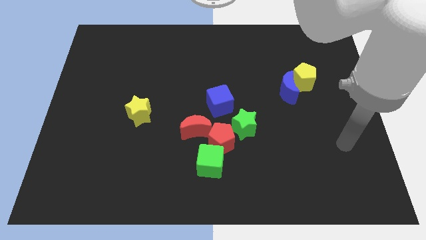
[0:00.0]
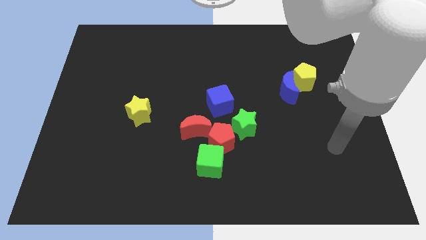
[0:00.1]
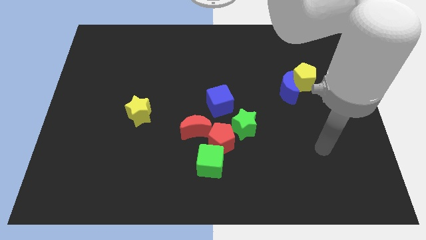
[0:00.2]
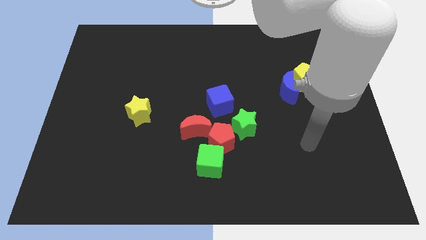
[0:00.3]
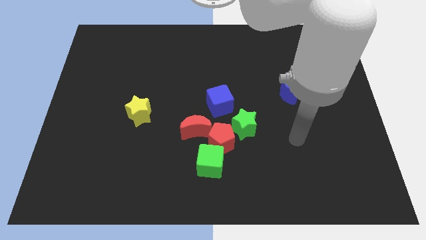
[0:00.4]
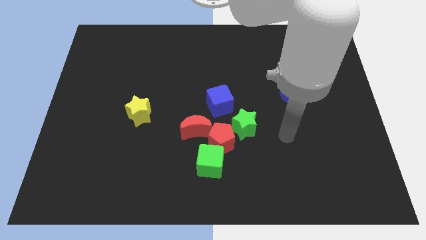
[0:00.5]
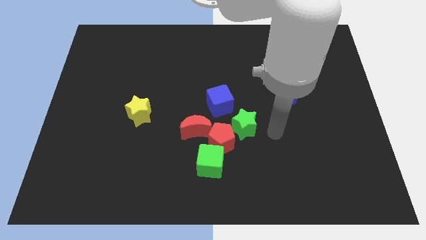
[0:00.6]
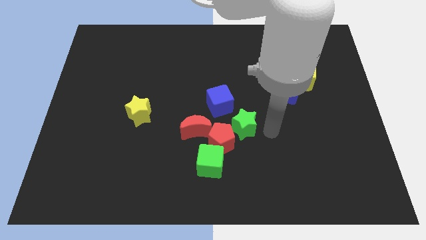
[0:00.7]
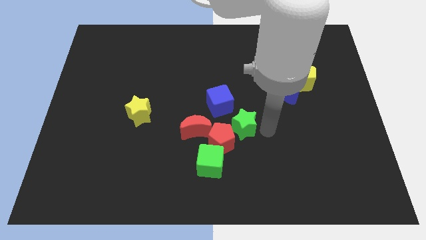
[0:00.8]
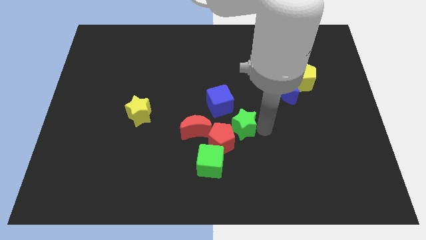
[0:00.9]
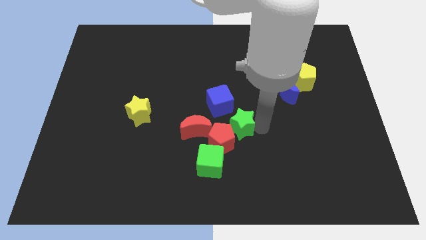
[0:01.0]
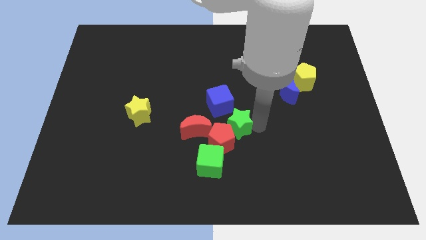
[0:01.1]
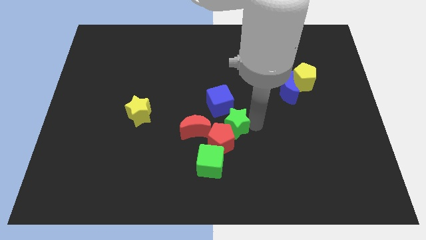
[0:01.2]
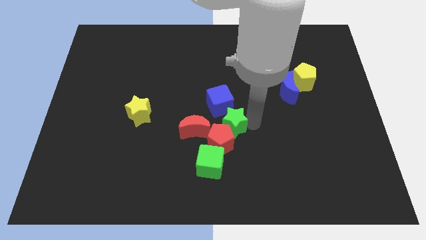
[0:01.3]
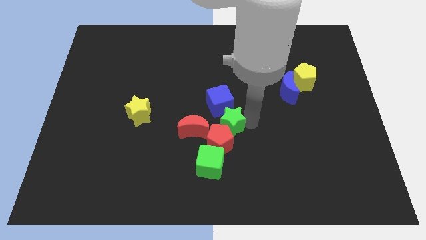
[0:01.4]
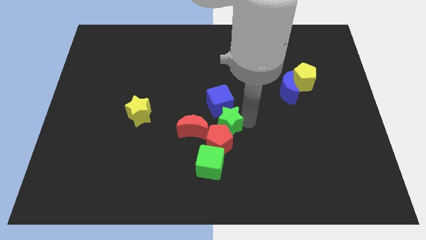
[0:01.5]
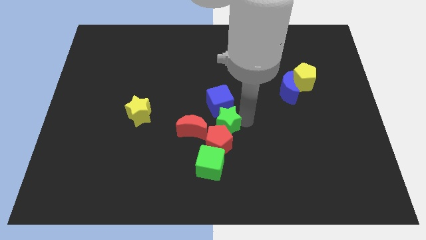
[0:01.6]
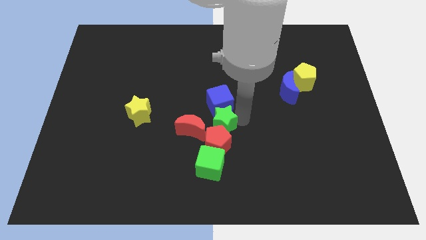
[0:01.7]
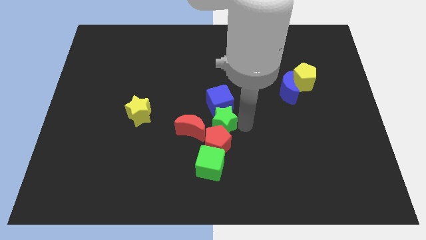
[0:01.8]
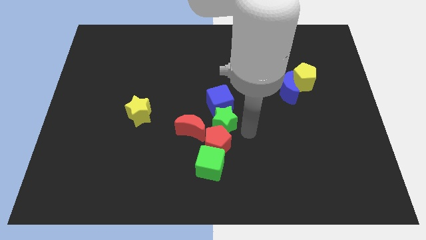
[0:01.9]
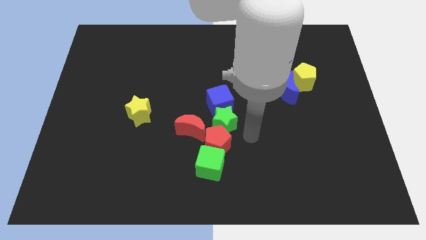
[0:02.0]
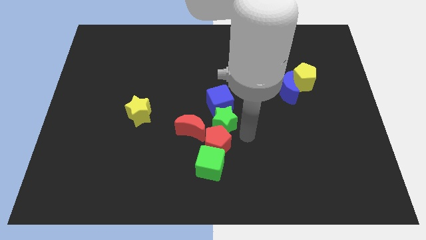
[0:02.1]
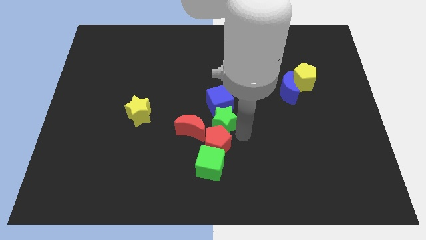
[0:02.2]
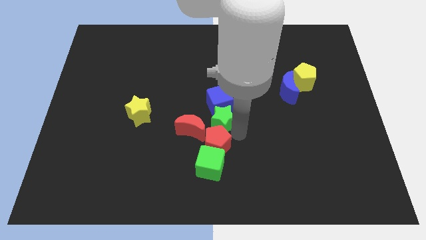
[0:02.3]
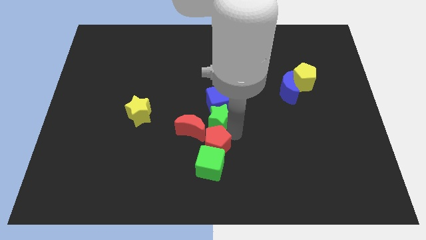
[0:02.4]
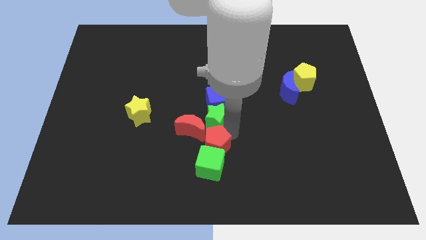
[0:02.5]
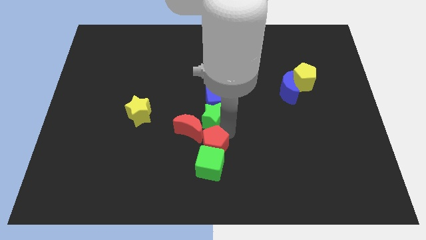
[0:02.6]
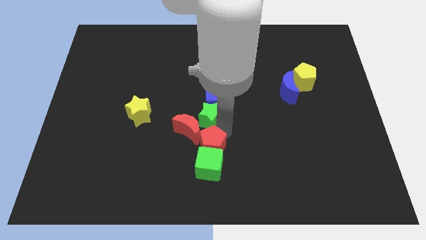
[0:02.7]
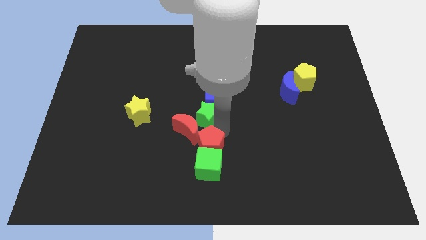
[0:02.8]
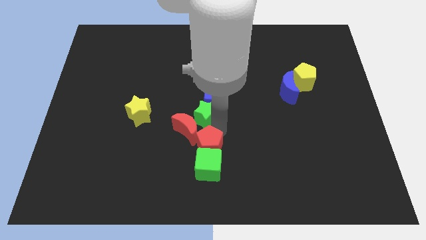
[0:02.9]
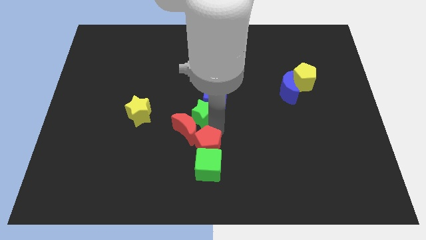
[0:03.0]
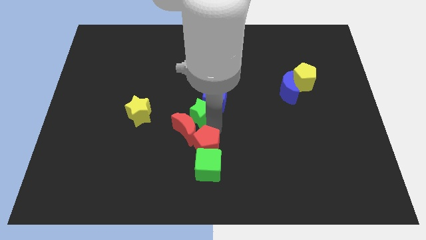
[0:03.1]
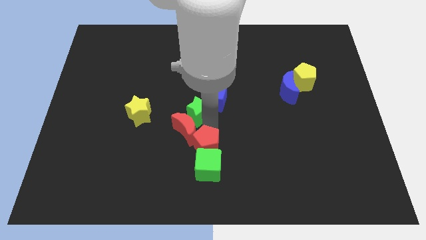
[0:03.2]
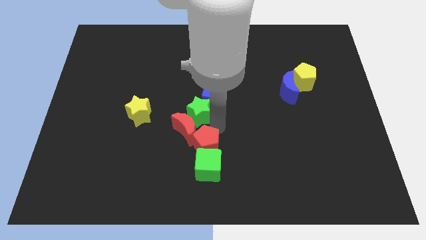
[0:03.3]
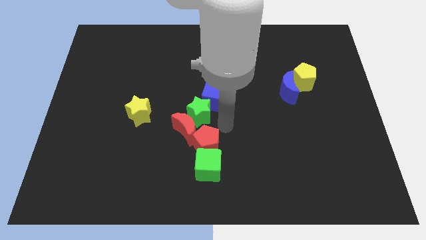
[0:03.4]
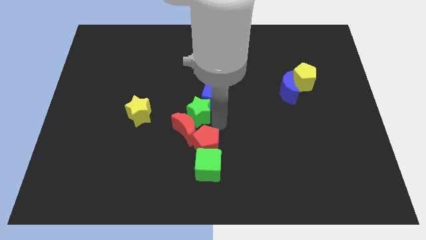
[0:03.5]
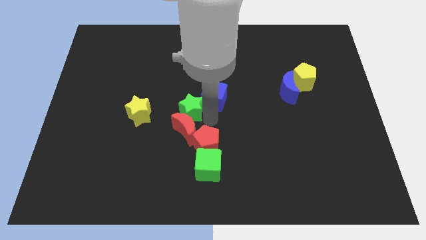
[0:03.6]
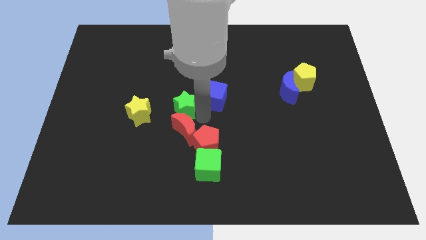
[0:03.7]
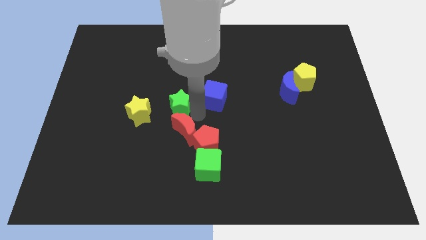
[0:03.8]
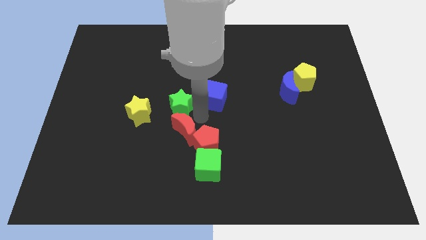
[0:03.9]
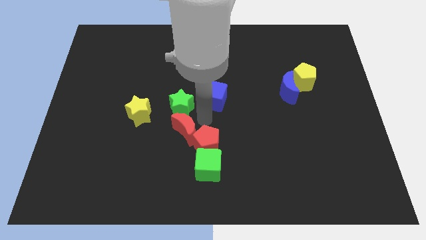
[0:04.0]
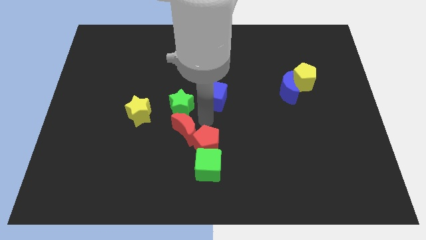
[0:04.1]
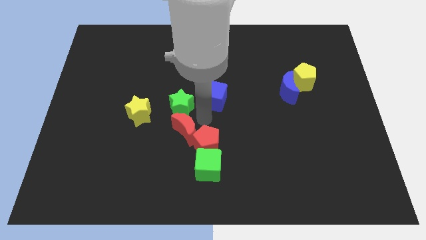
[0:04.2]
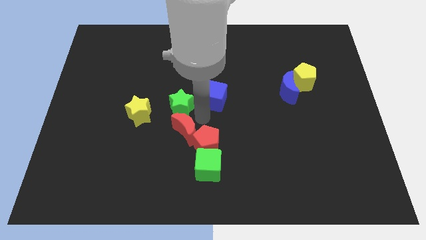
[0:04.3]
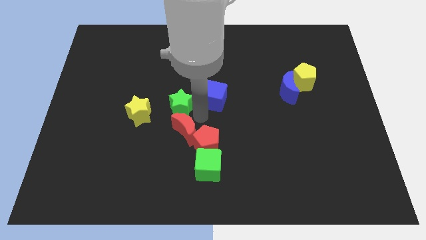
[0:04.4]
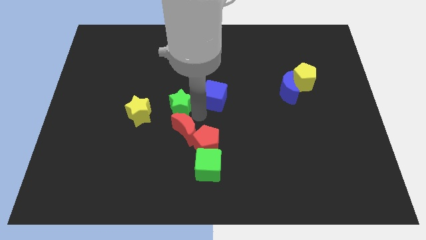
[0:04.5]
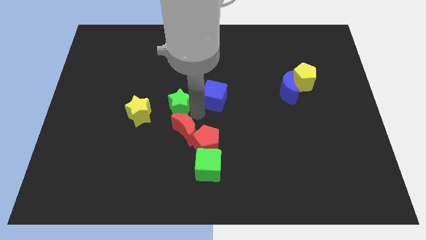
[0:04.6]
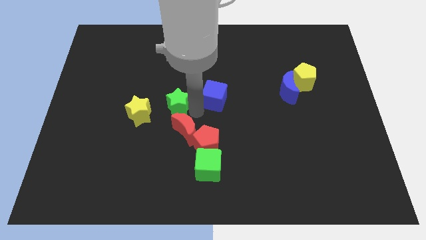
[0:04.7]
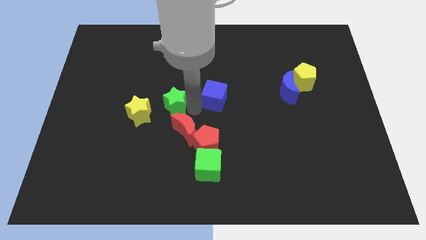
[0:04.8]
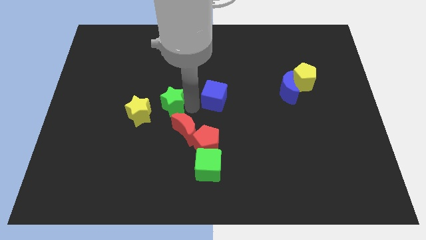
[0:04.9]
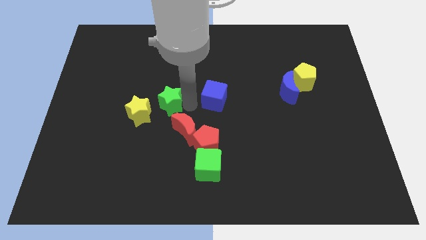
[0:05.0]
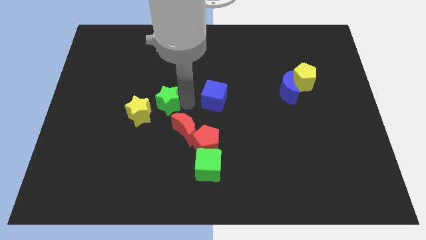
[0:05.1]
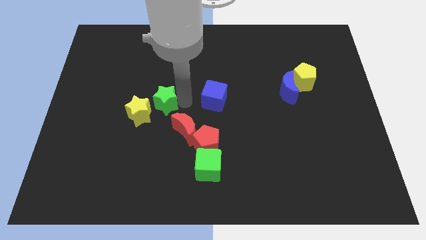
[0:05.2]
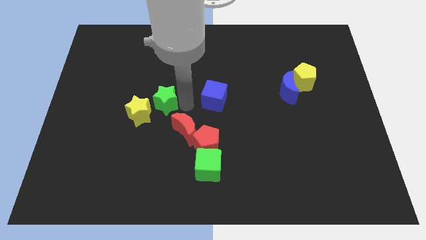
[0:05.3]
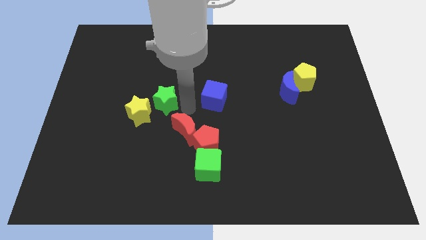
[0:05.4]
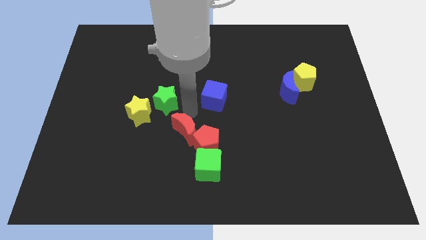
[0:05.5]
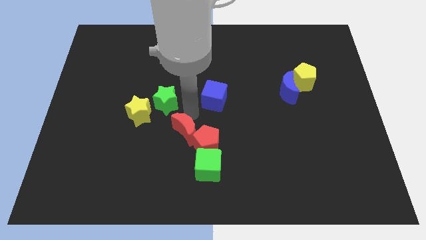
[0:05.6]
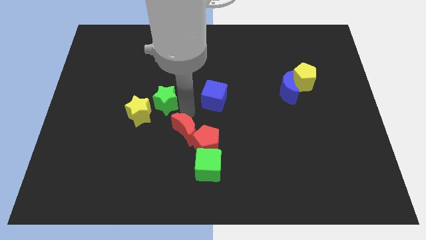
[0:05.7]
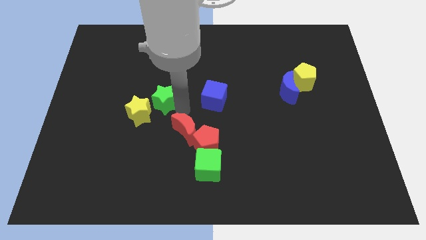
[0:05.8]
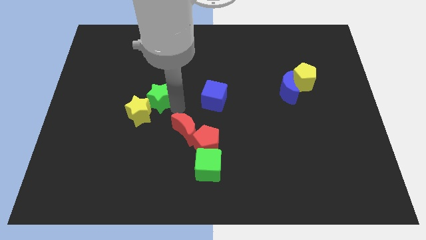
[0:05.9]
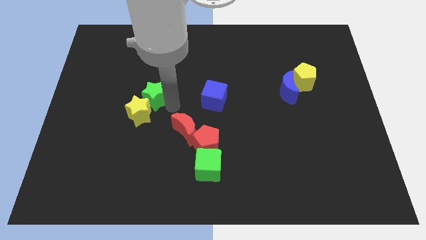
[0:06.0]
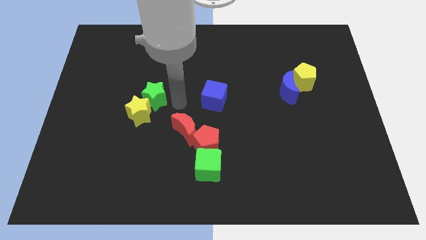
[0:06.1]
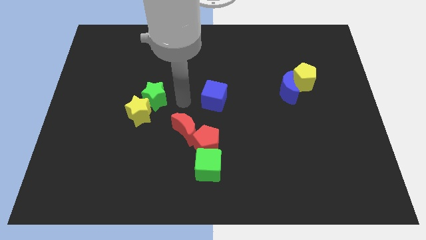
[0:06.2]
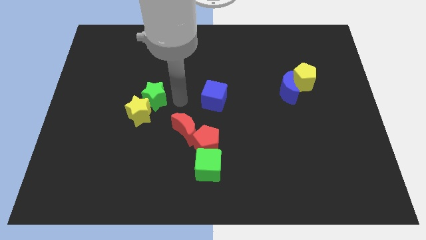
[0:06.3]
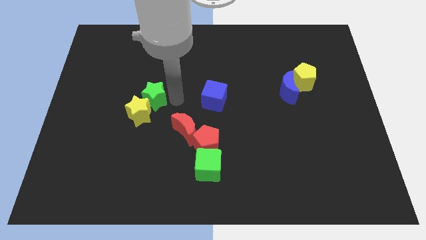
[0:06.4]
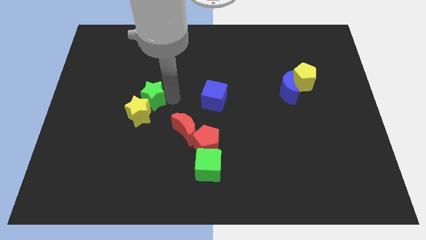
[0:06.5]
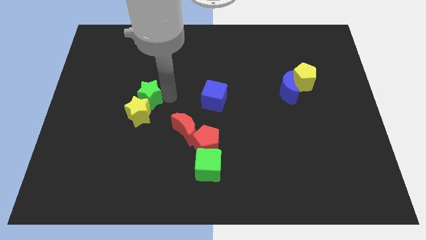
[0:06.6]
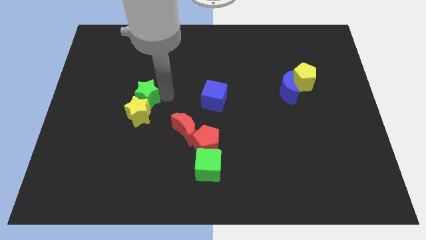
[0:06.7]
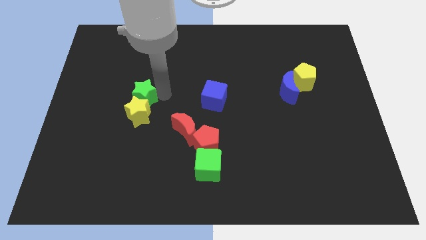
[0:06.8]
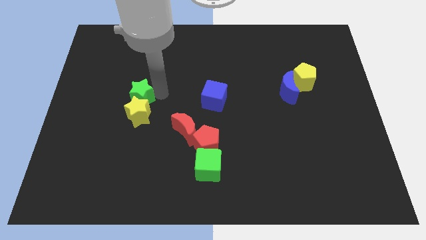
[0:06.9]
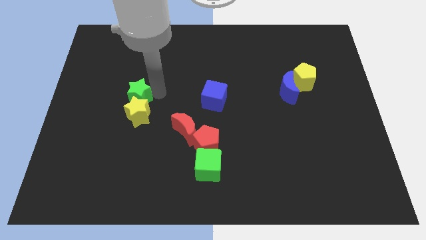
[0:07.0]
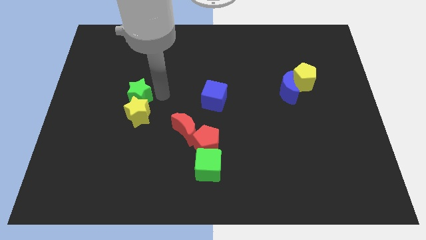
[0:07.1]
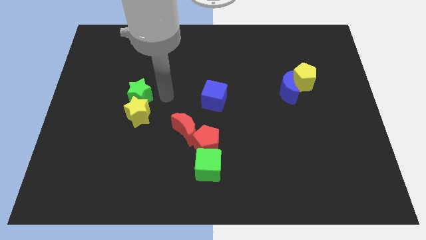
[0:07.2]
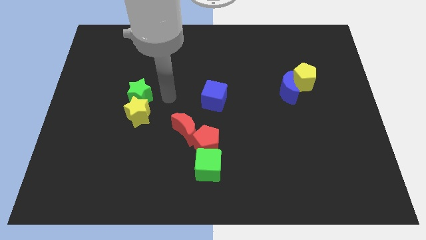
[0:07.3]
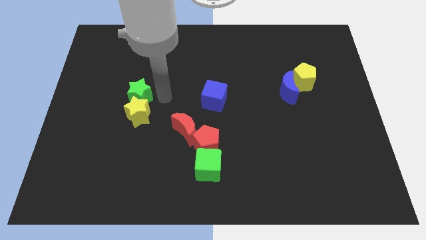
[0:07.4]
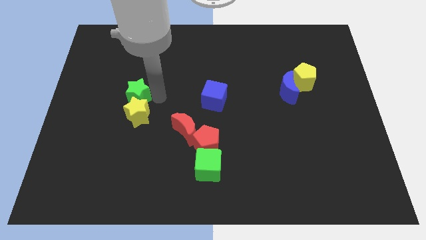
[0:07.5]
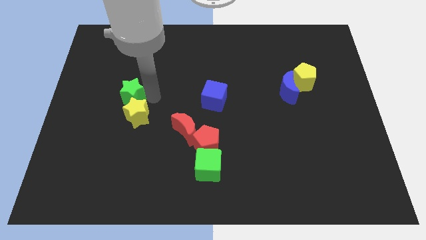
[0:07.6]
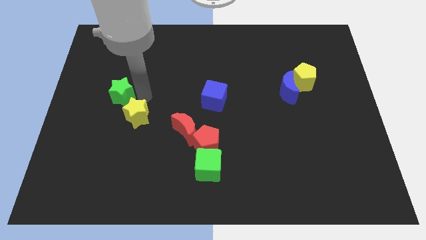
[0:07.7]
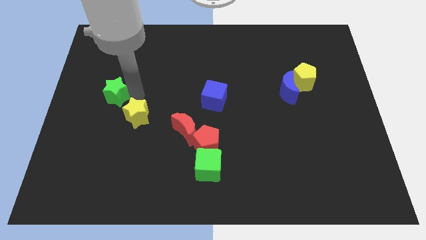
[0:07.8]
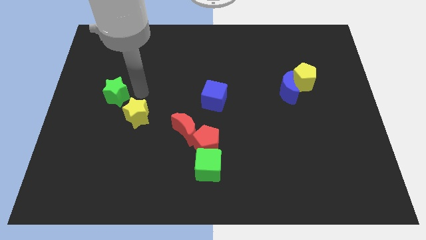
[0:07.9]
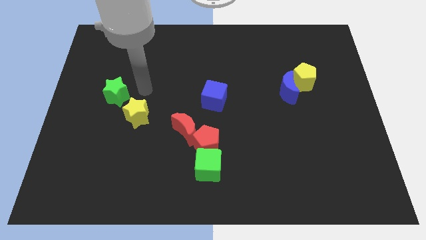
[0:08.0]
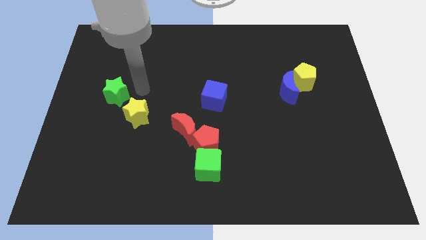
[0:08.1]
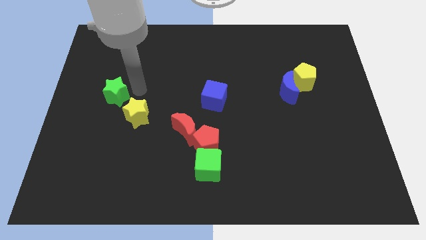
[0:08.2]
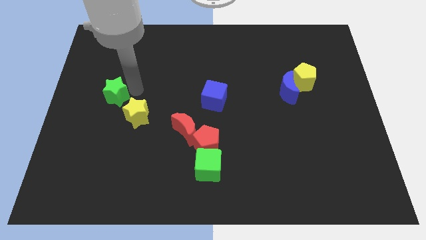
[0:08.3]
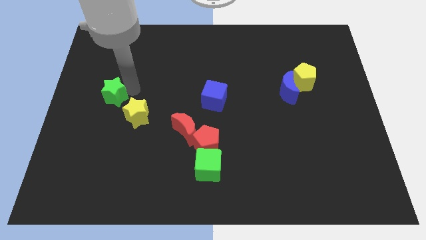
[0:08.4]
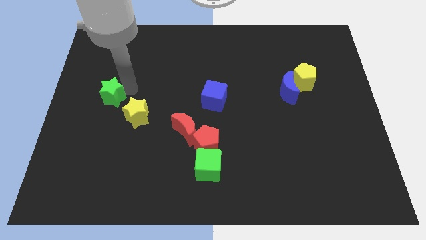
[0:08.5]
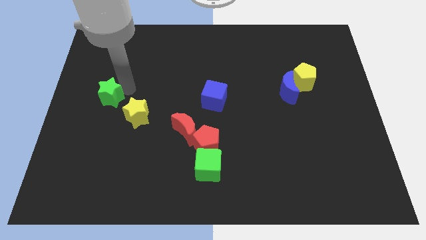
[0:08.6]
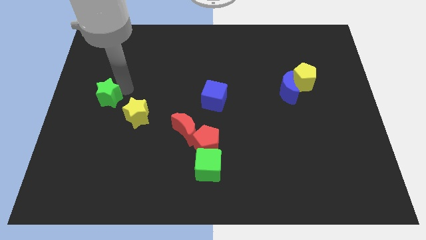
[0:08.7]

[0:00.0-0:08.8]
put the green star to the left side
